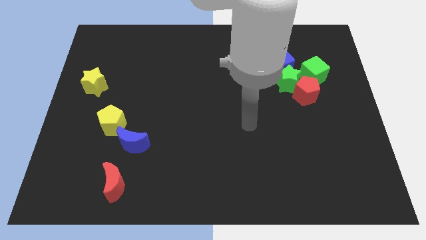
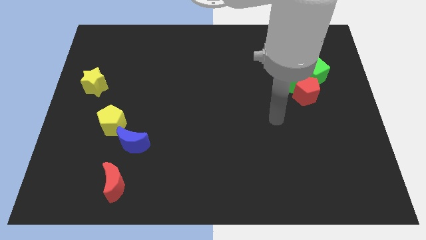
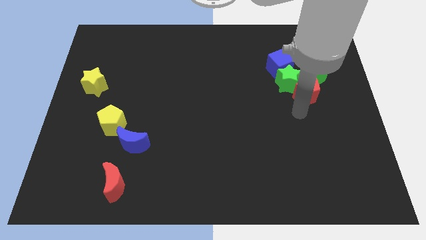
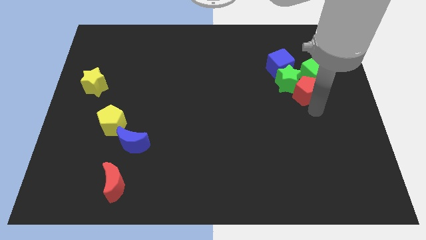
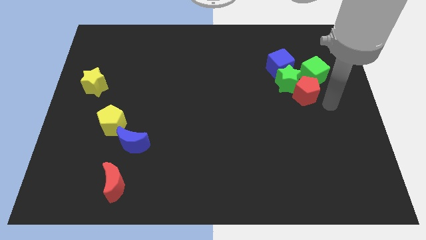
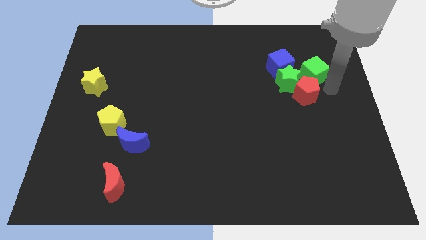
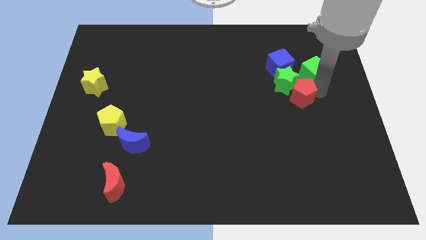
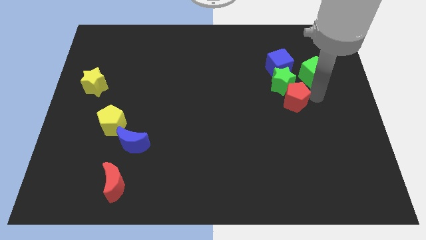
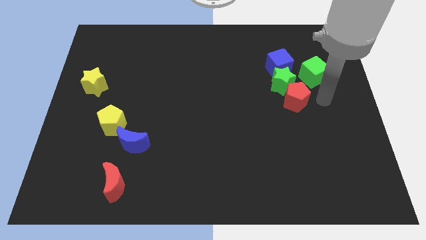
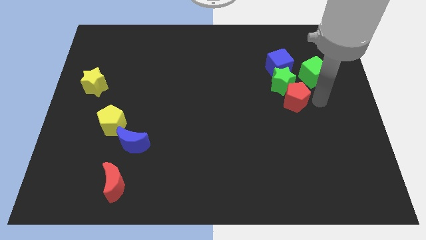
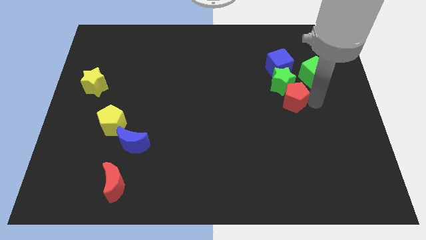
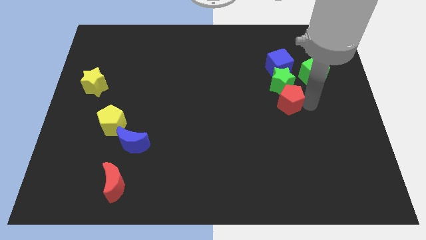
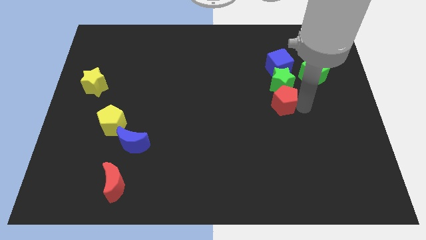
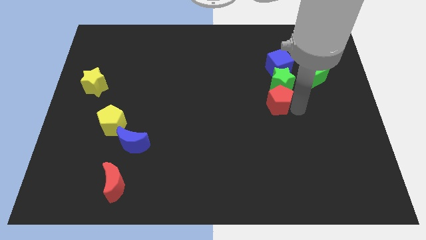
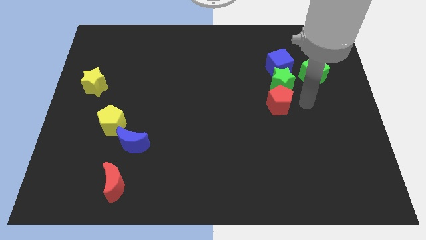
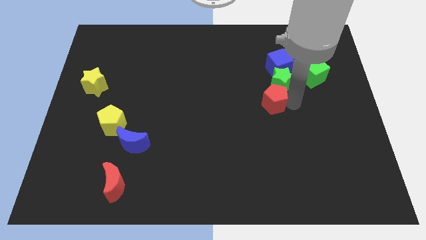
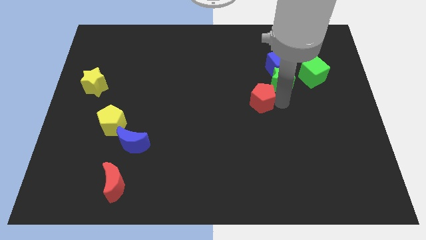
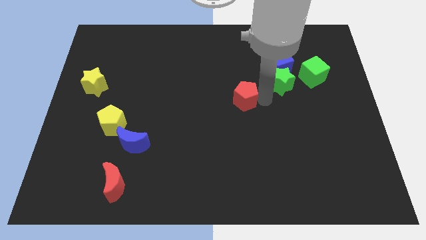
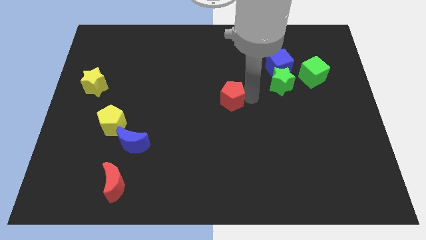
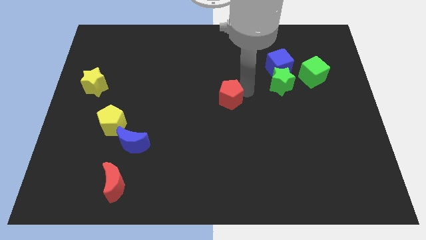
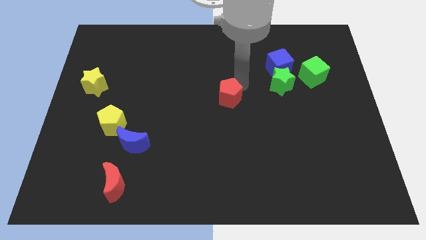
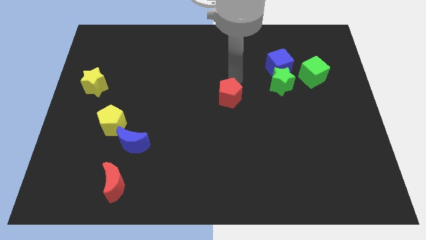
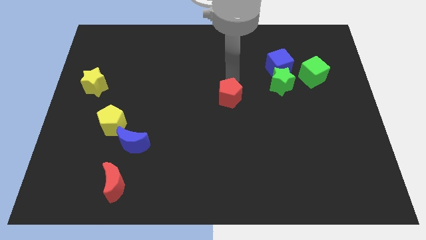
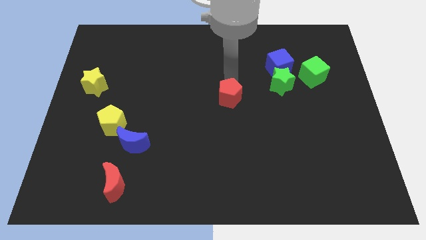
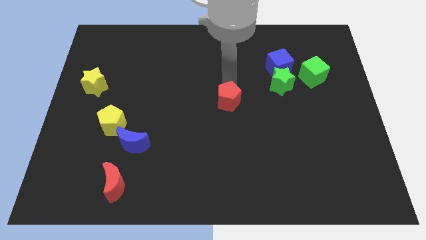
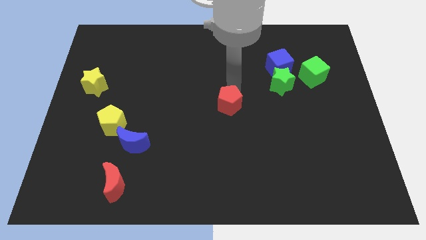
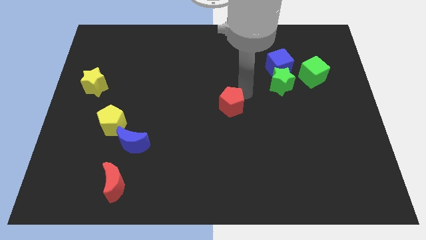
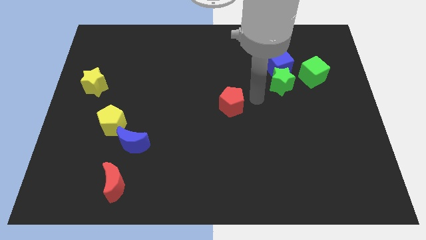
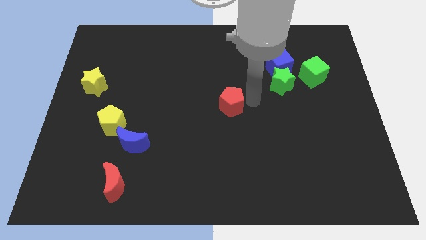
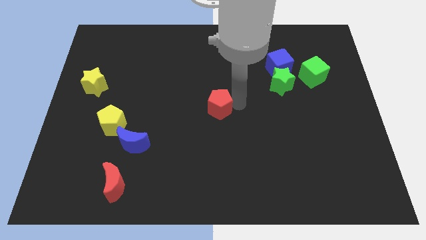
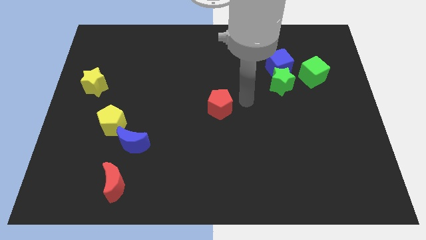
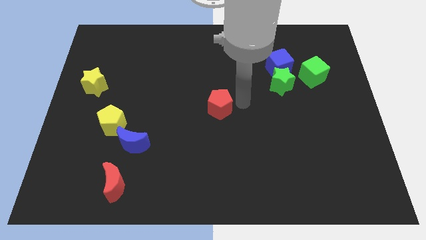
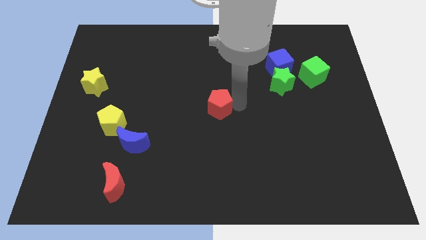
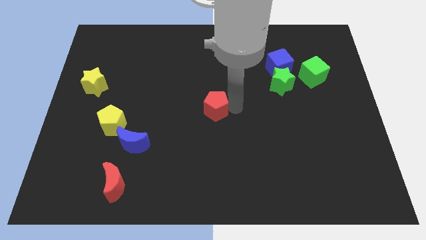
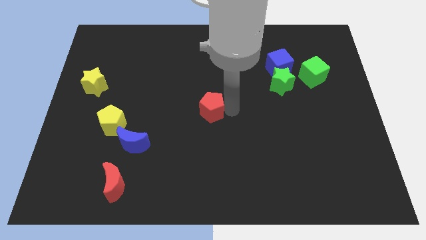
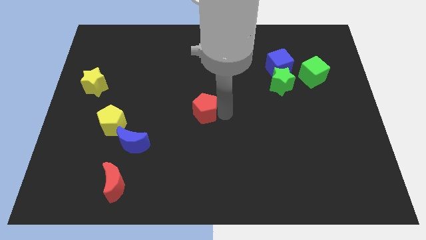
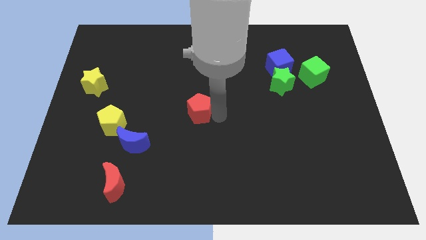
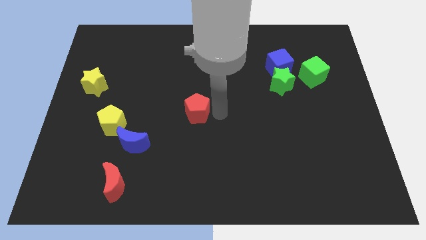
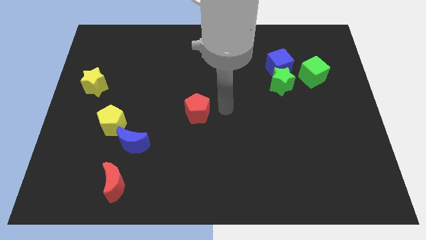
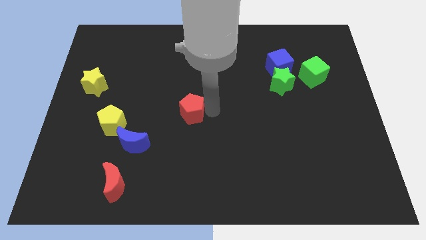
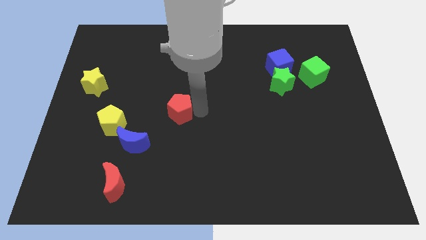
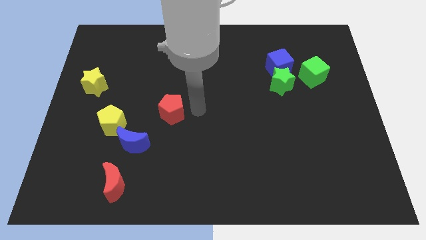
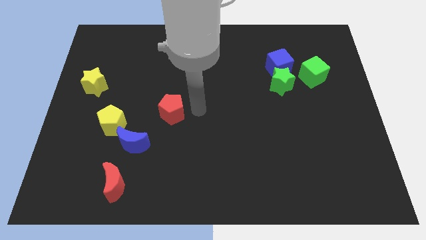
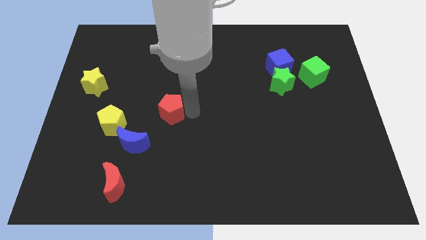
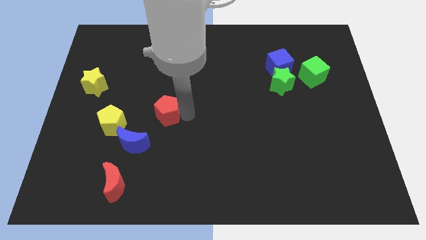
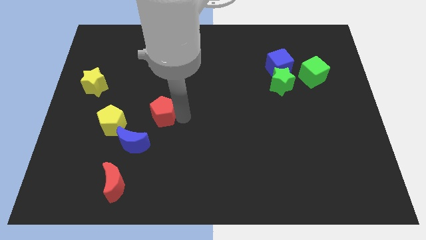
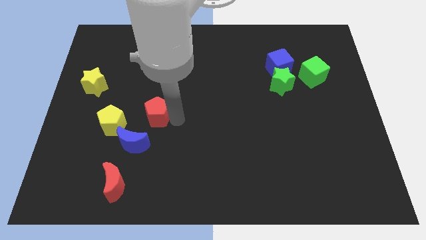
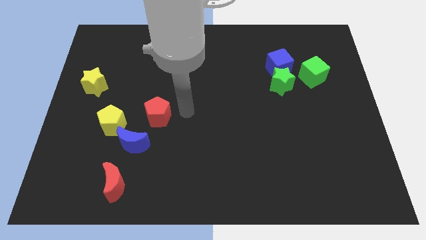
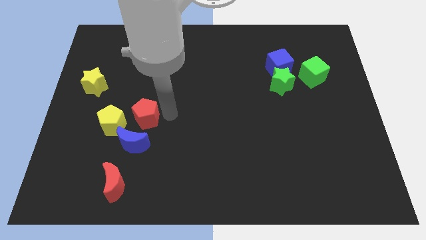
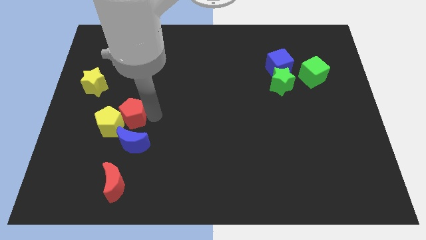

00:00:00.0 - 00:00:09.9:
slide the red pentagon towards the yellow pentagon

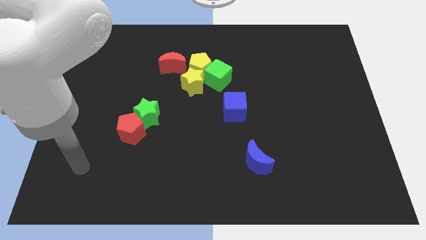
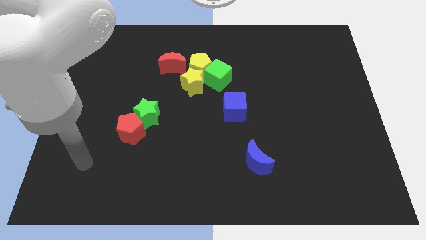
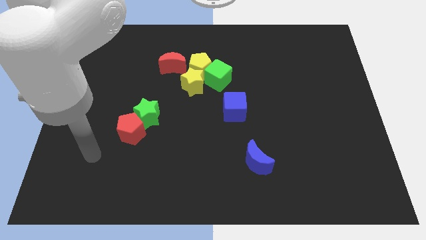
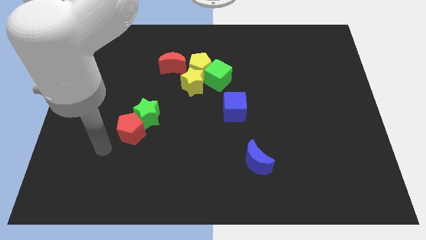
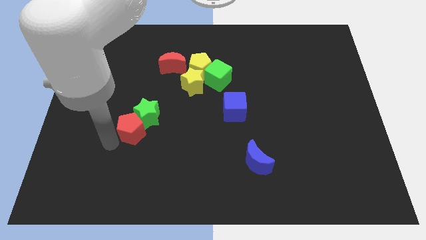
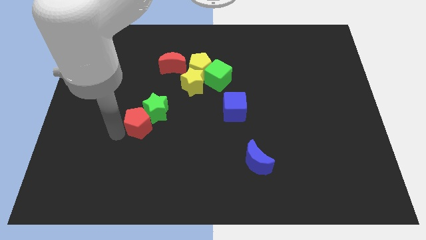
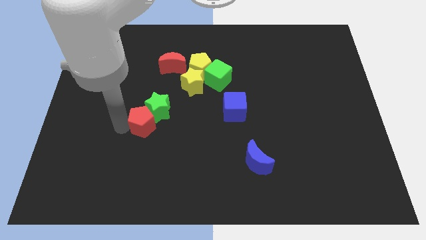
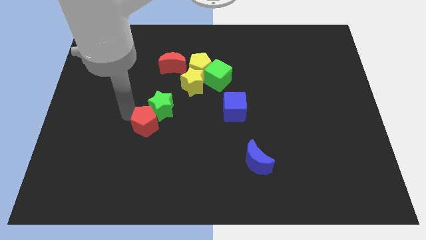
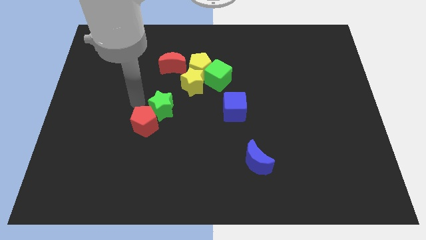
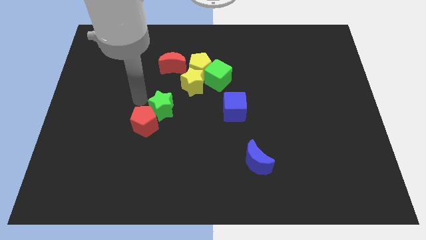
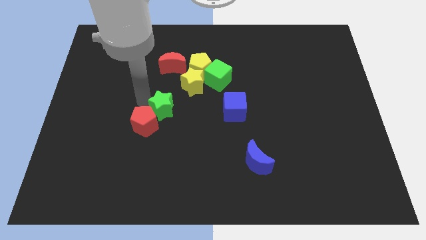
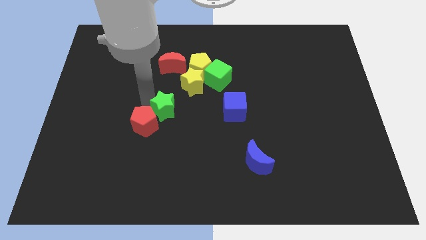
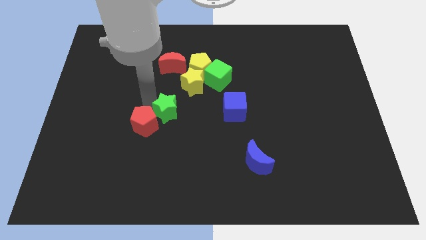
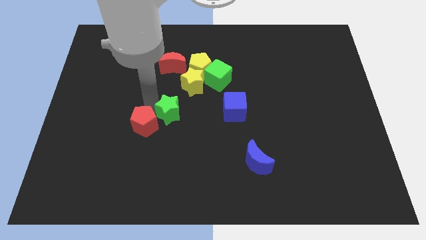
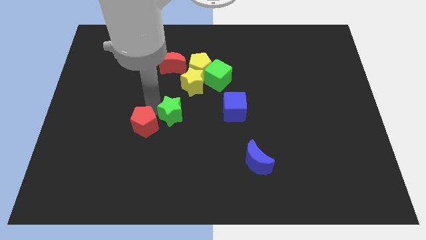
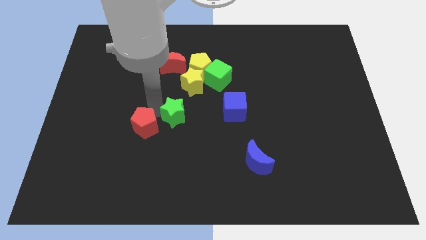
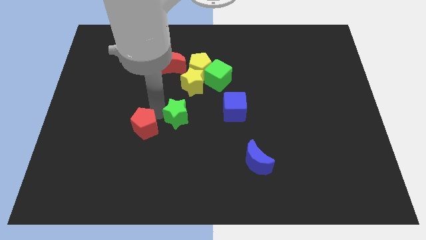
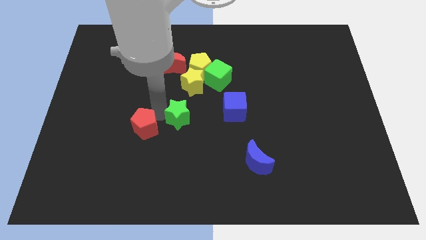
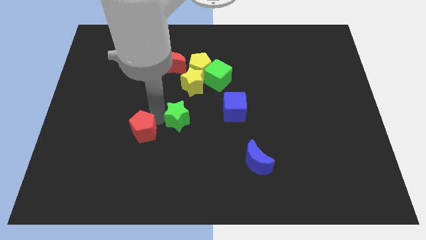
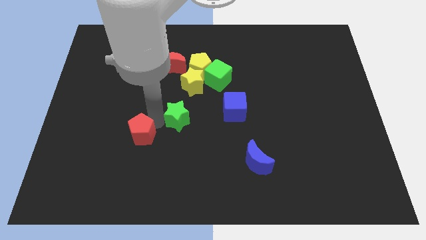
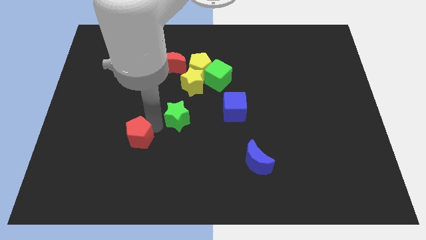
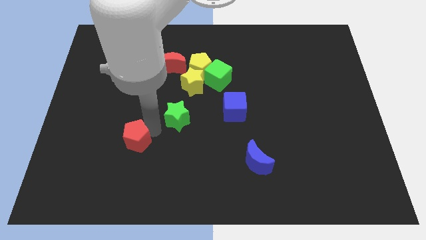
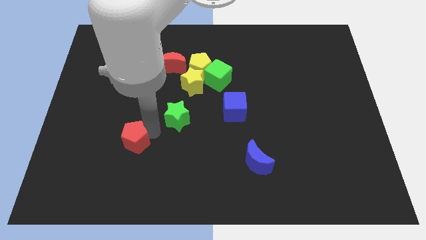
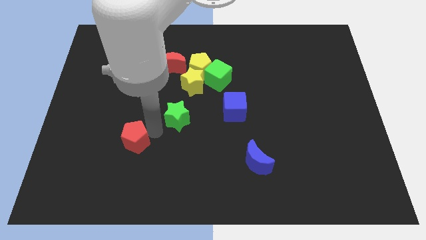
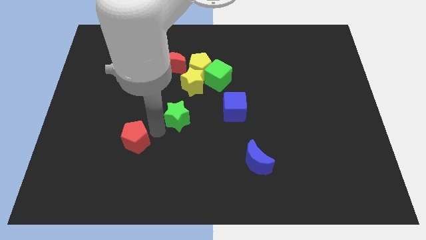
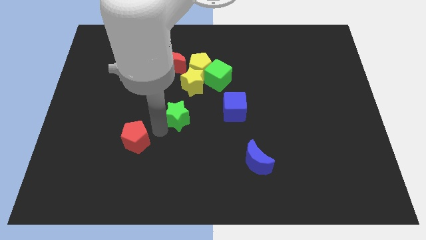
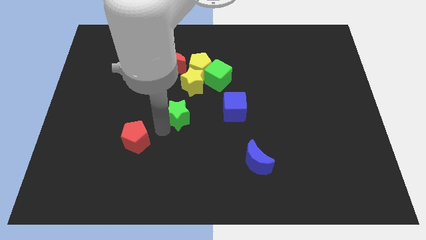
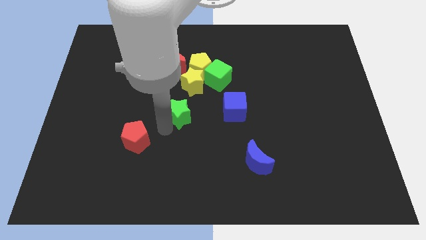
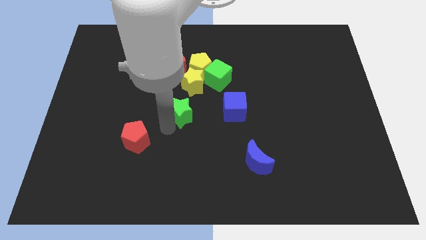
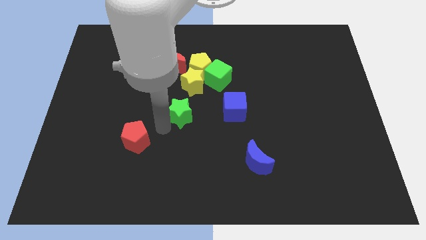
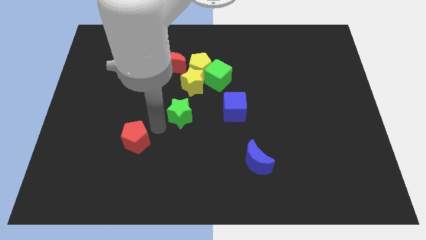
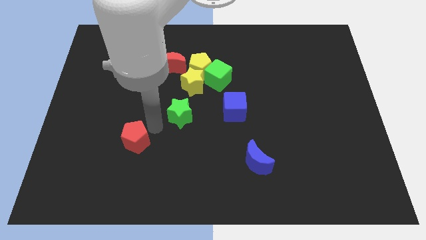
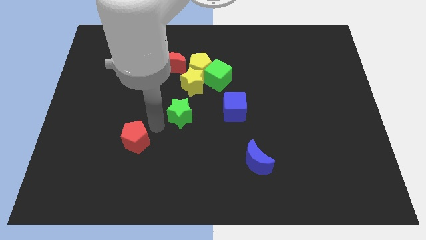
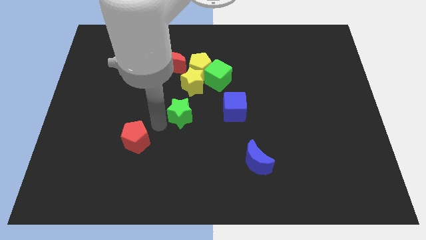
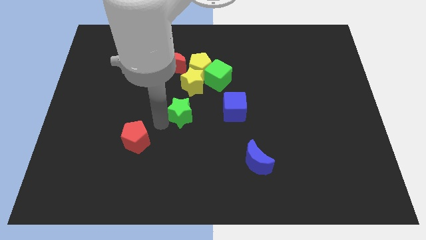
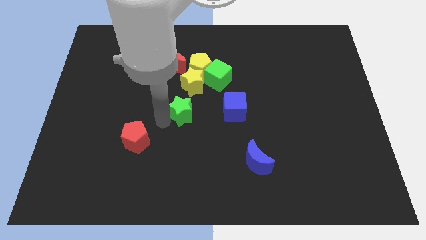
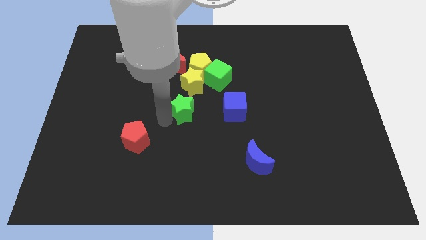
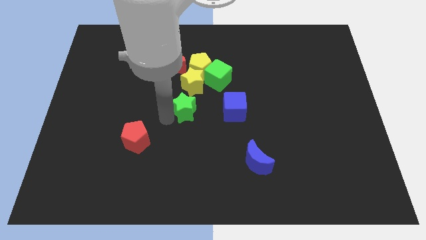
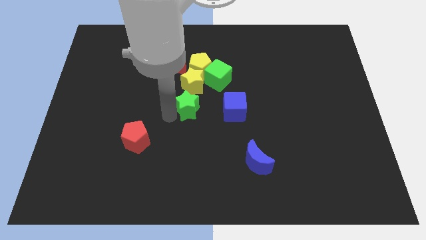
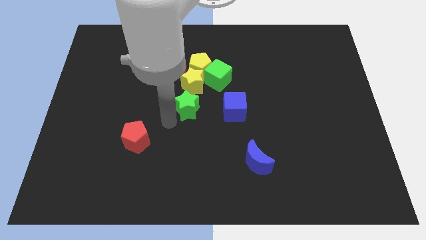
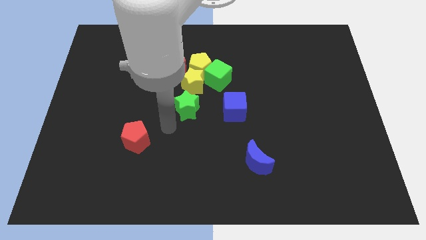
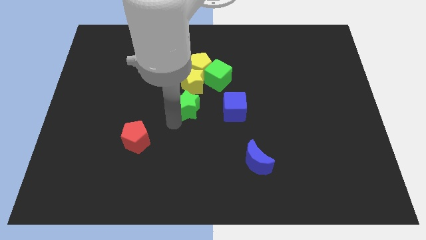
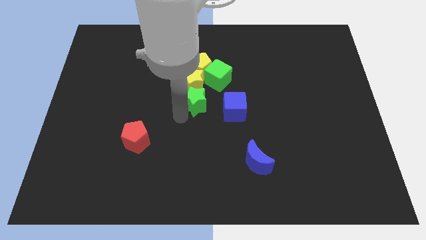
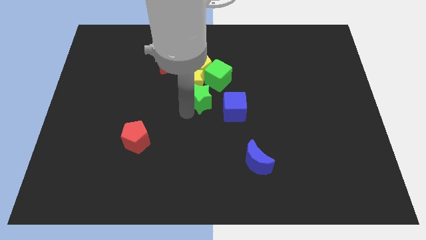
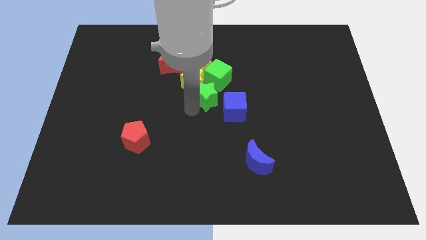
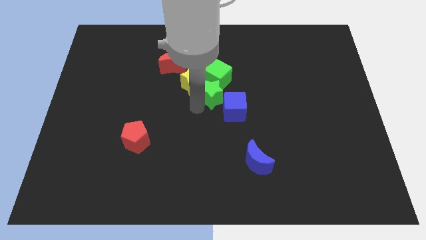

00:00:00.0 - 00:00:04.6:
push the green star close to the green cube
